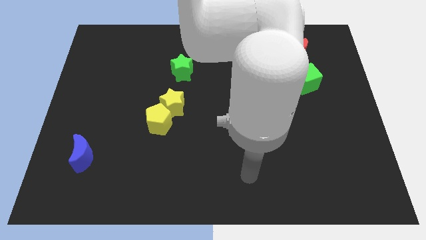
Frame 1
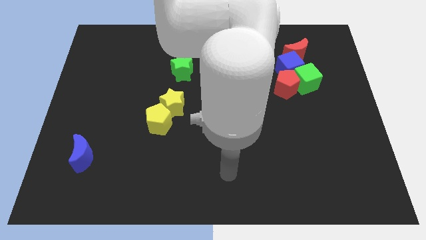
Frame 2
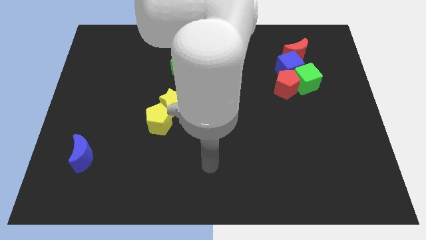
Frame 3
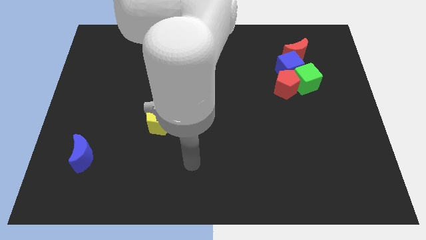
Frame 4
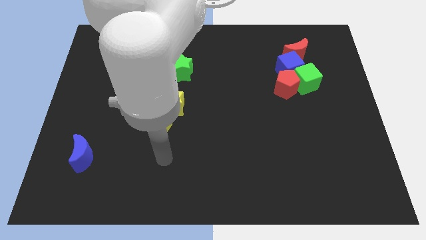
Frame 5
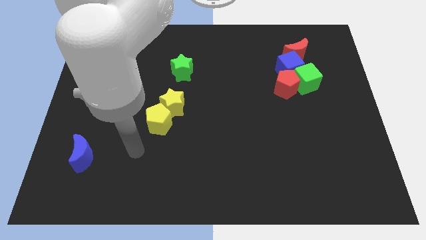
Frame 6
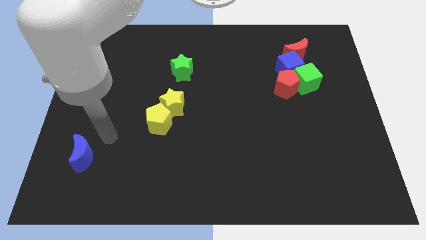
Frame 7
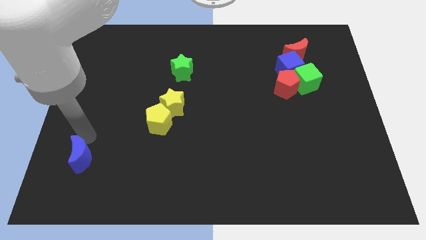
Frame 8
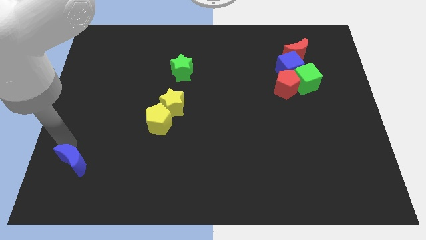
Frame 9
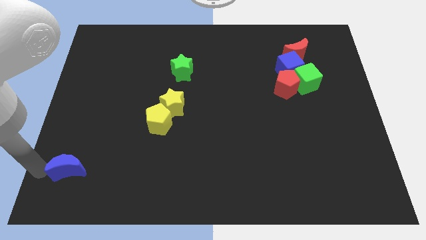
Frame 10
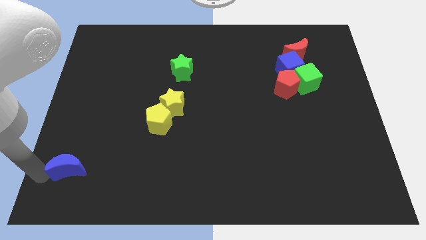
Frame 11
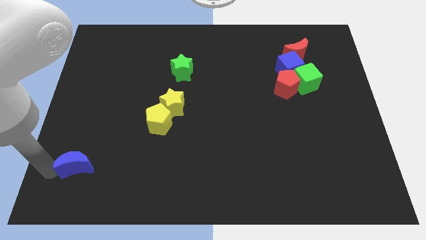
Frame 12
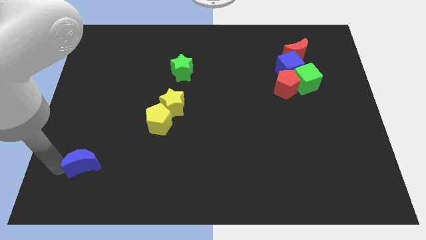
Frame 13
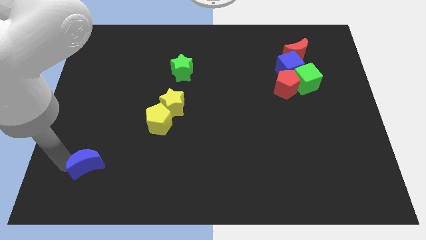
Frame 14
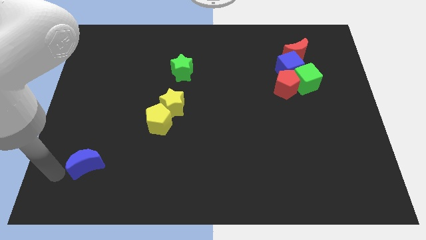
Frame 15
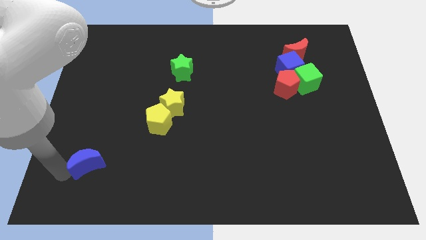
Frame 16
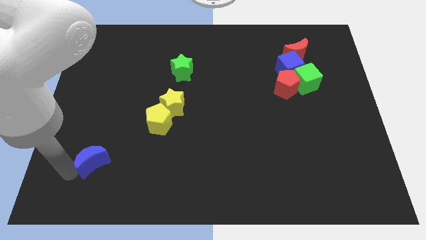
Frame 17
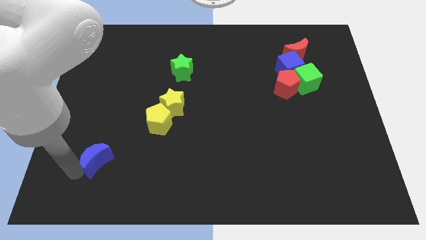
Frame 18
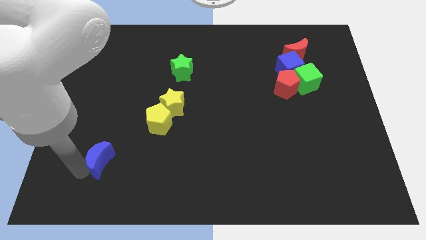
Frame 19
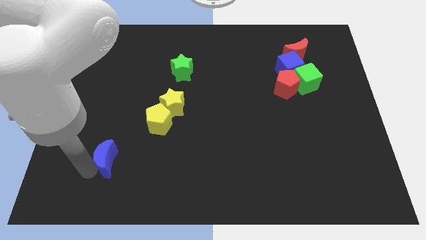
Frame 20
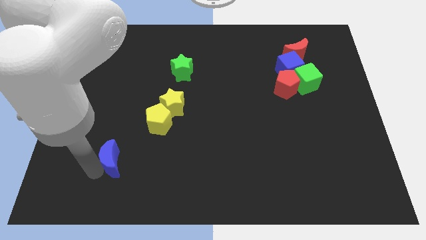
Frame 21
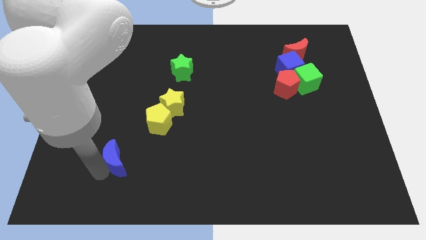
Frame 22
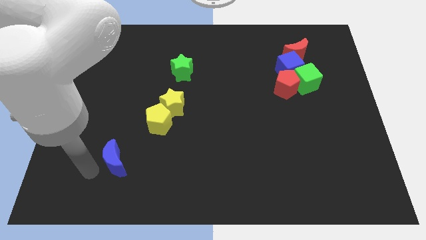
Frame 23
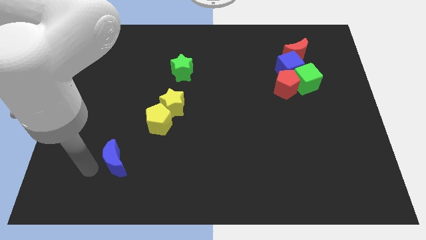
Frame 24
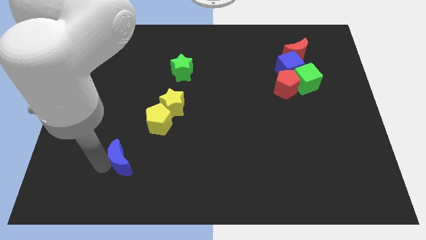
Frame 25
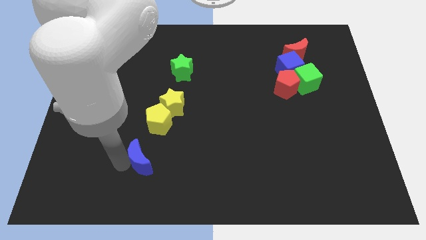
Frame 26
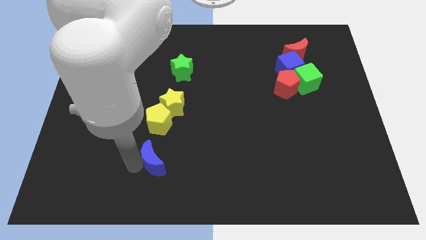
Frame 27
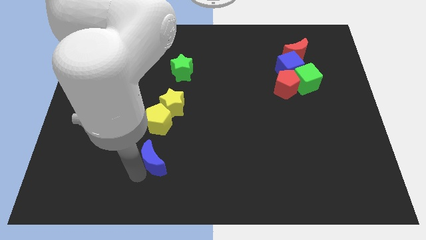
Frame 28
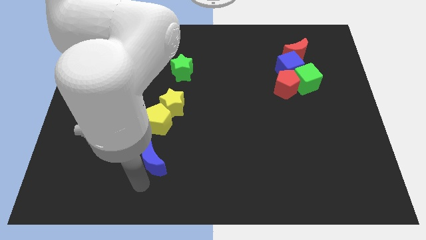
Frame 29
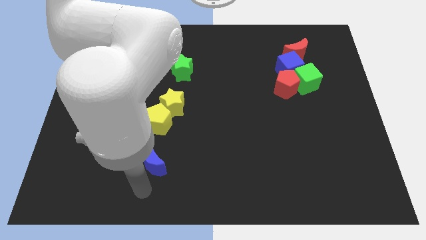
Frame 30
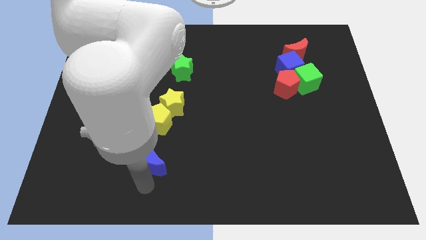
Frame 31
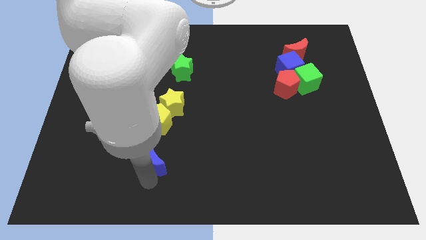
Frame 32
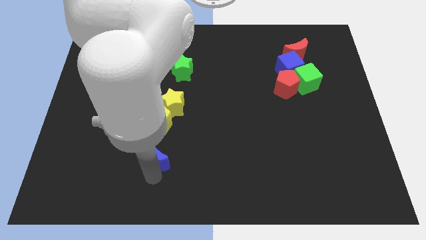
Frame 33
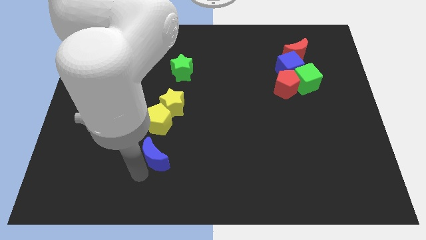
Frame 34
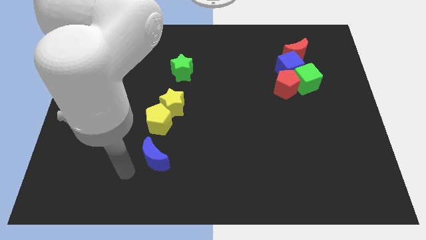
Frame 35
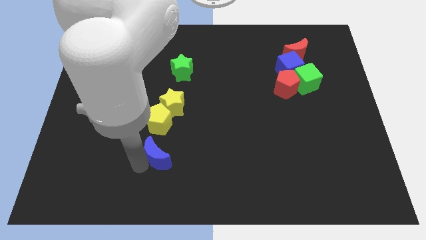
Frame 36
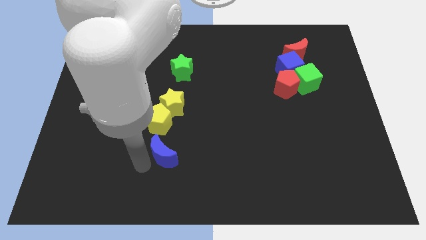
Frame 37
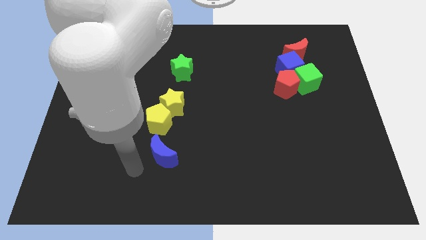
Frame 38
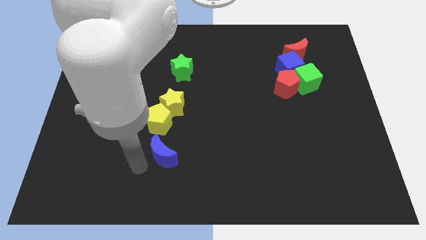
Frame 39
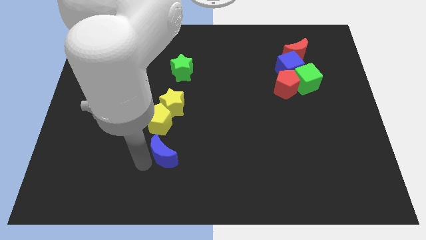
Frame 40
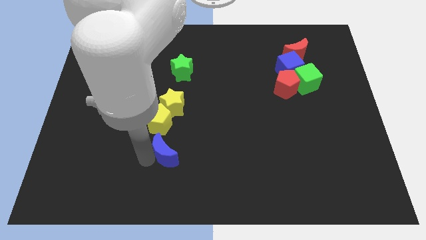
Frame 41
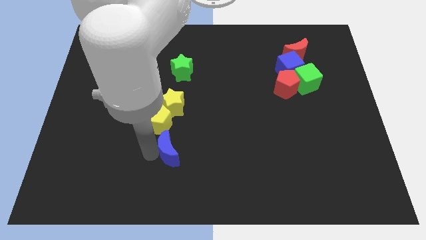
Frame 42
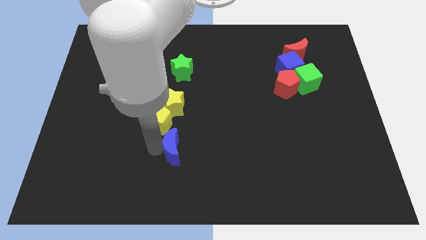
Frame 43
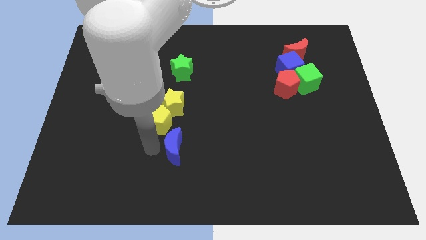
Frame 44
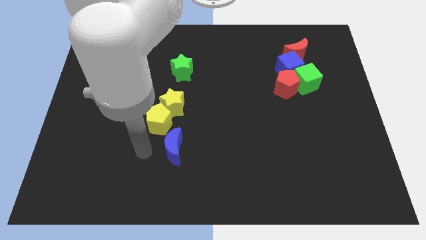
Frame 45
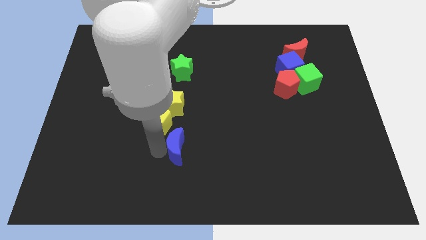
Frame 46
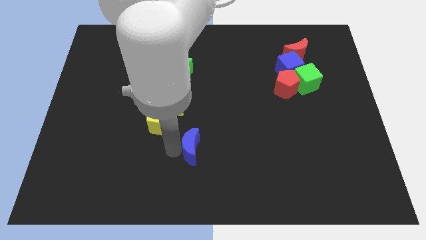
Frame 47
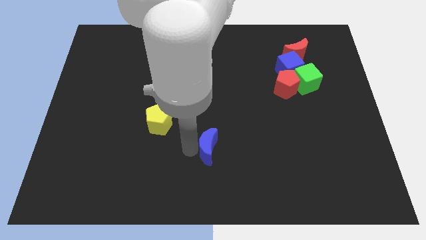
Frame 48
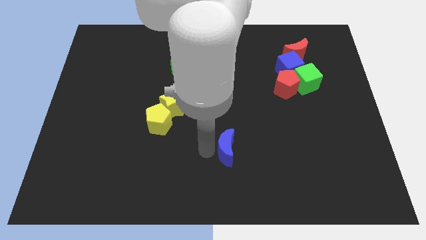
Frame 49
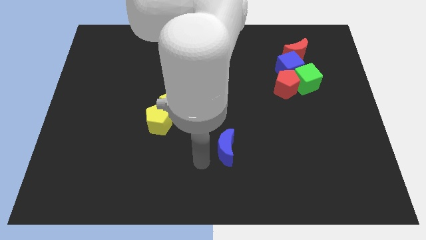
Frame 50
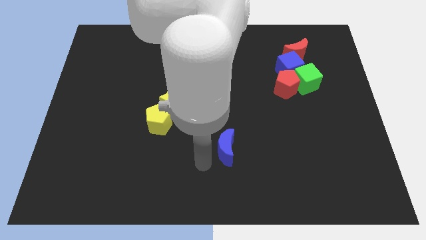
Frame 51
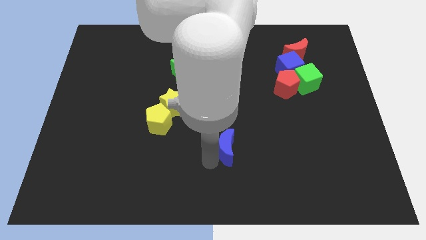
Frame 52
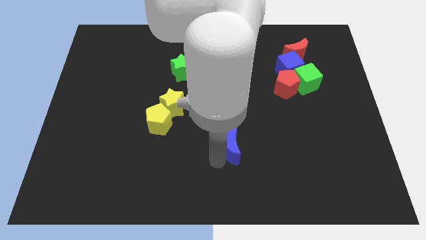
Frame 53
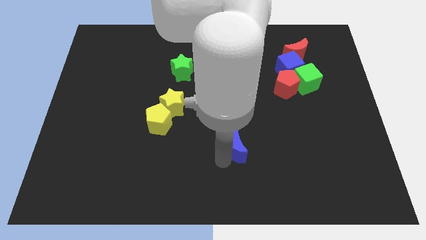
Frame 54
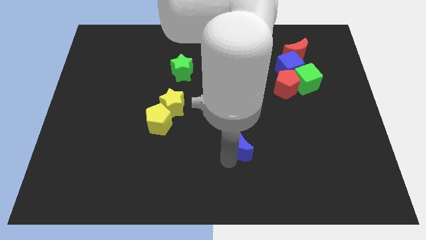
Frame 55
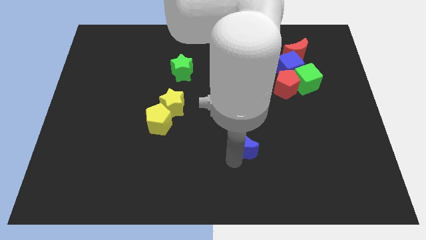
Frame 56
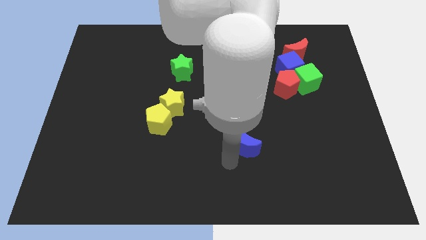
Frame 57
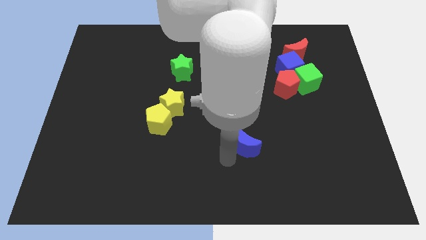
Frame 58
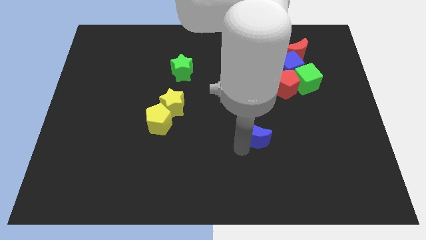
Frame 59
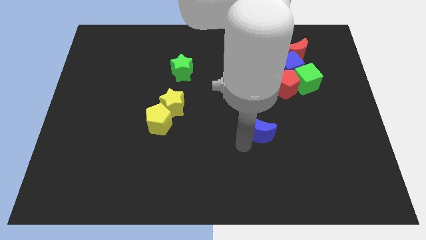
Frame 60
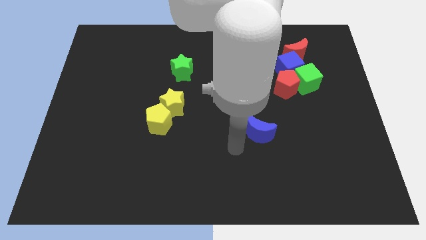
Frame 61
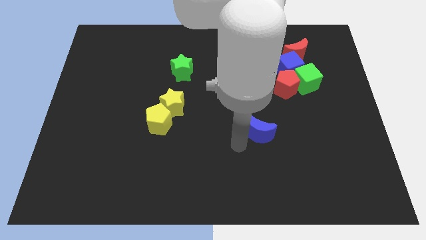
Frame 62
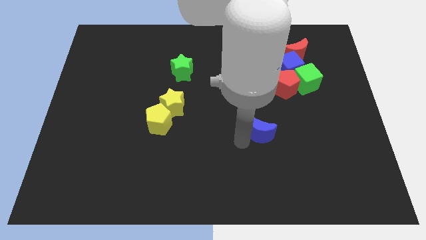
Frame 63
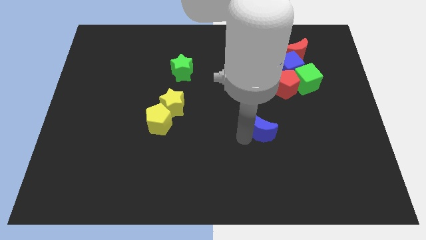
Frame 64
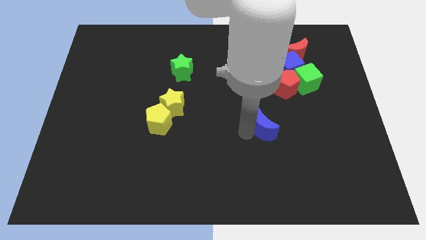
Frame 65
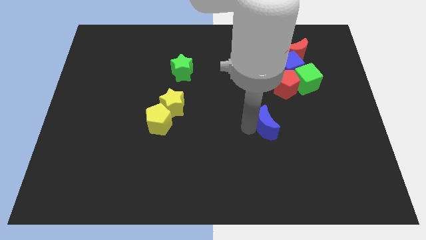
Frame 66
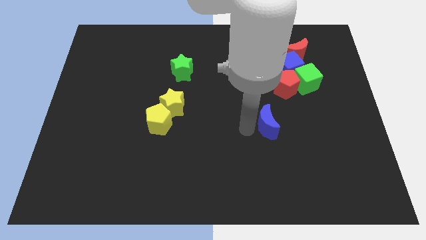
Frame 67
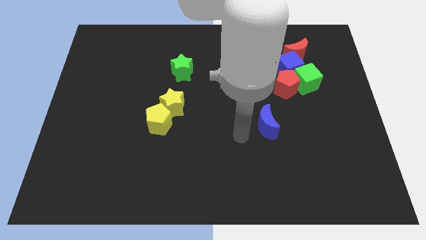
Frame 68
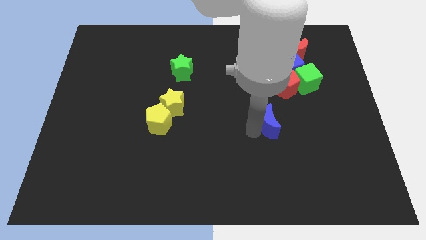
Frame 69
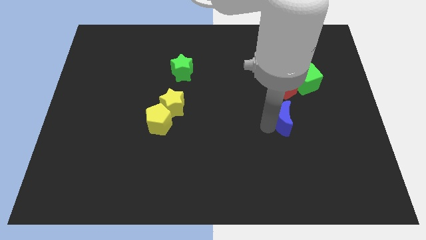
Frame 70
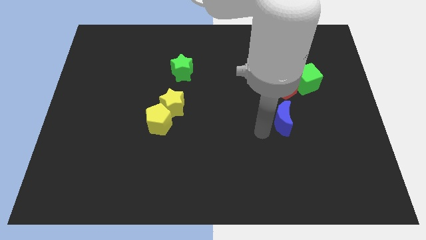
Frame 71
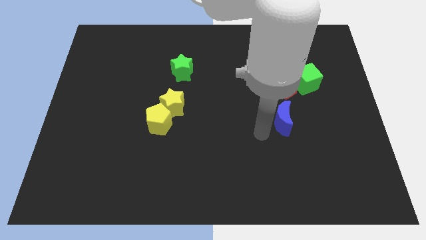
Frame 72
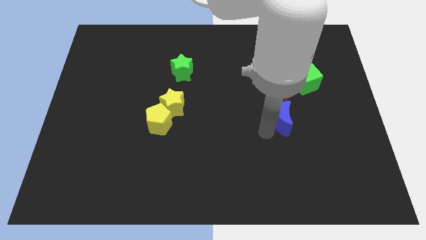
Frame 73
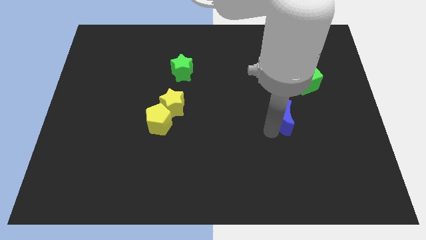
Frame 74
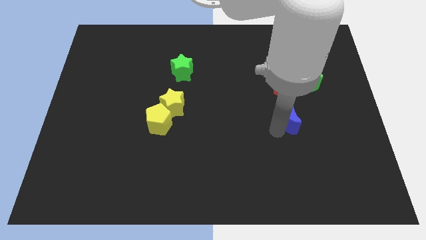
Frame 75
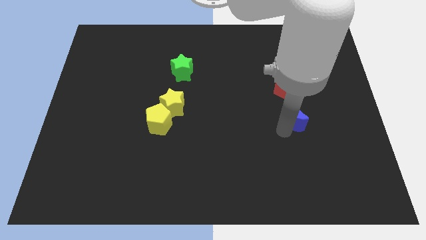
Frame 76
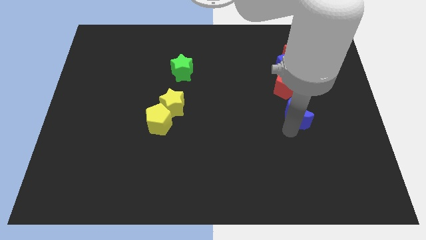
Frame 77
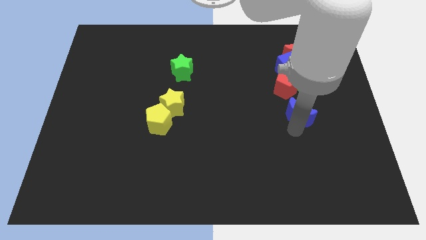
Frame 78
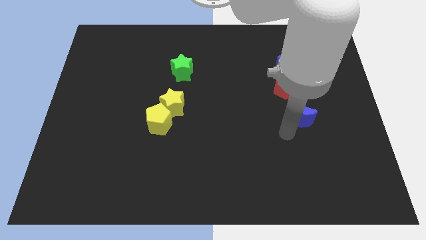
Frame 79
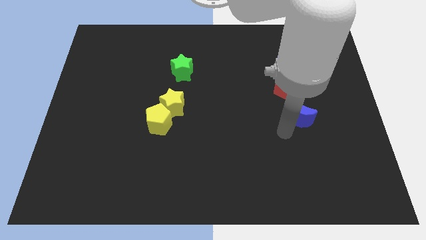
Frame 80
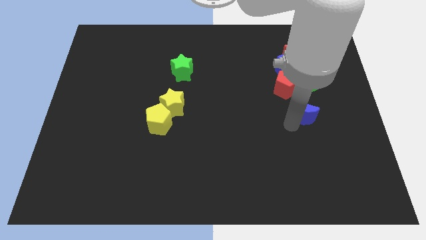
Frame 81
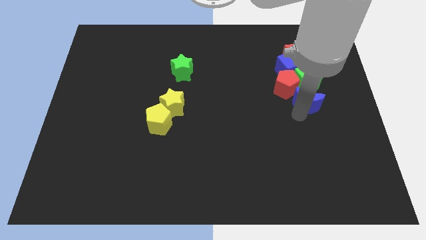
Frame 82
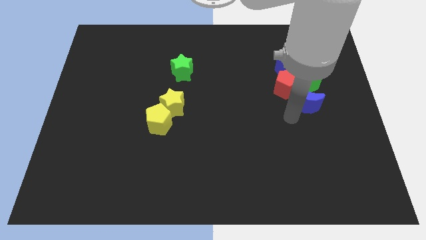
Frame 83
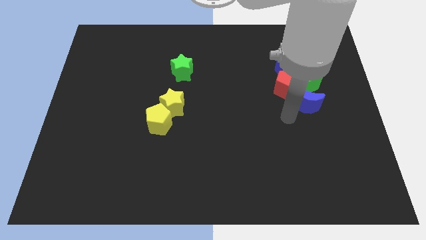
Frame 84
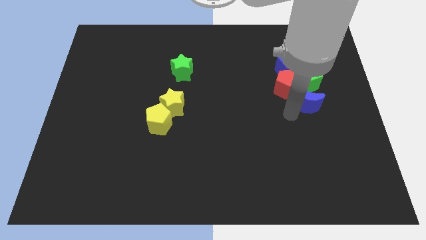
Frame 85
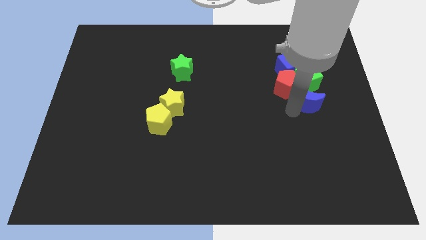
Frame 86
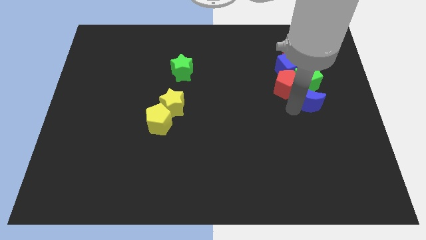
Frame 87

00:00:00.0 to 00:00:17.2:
put the blue moon to the right of the red pentagon
